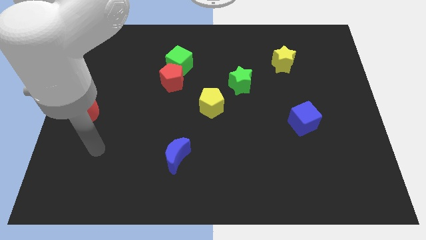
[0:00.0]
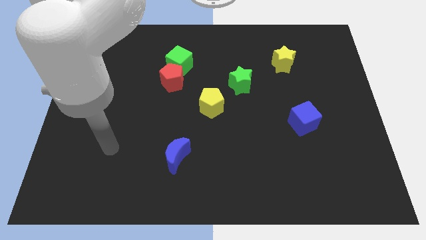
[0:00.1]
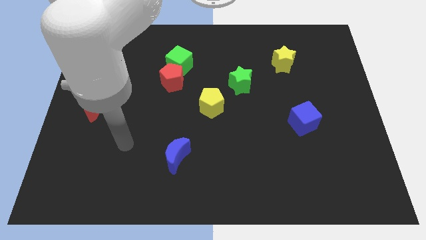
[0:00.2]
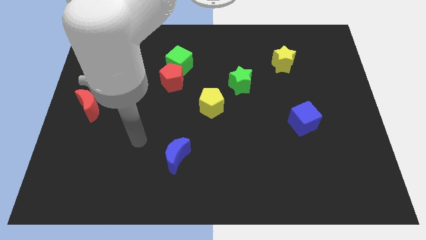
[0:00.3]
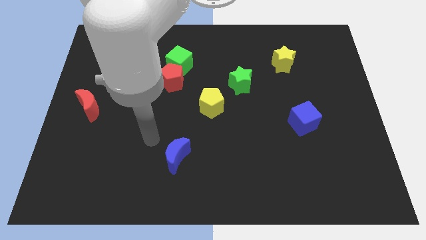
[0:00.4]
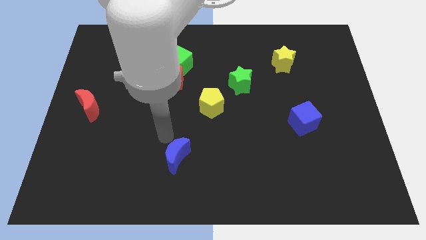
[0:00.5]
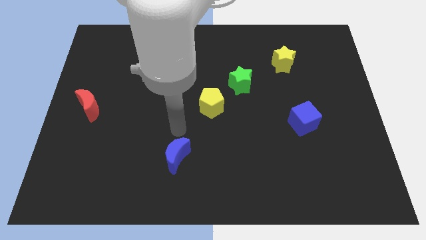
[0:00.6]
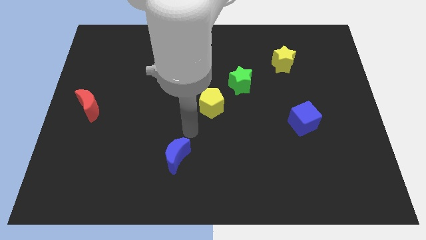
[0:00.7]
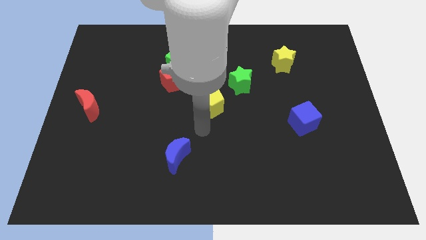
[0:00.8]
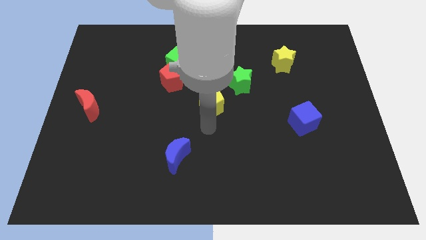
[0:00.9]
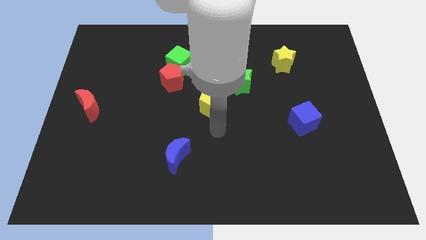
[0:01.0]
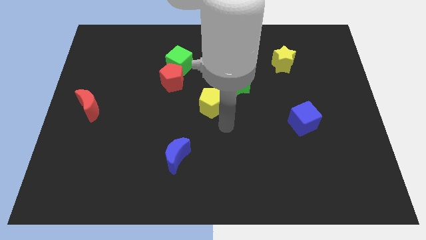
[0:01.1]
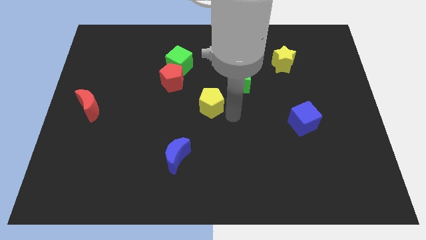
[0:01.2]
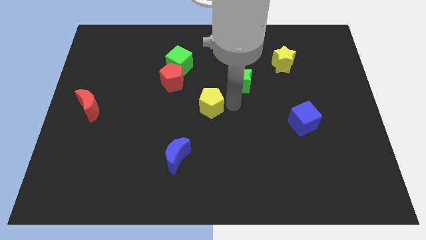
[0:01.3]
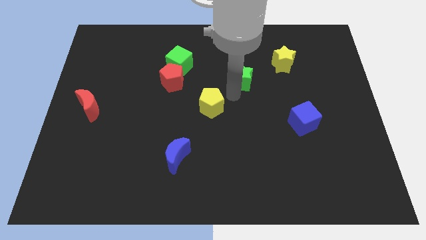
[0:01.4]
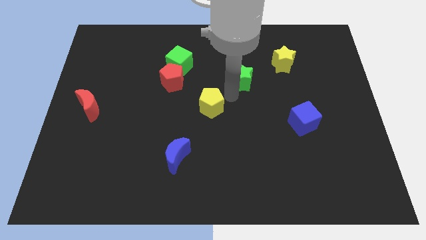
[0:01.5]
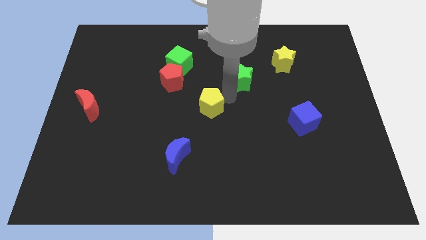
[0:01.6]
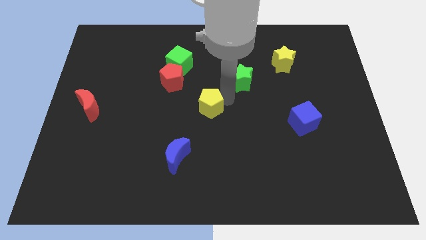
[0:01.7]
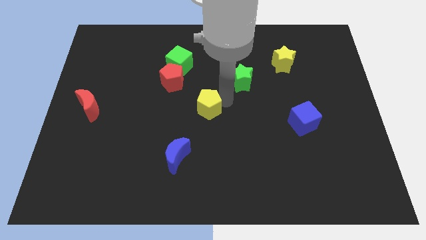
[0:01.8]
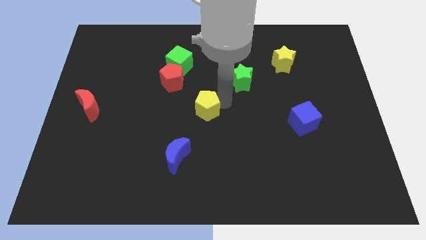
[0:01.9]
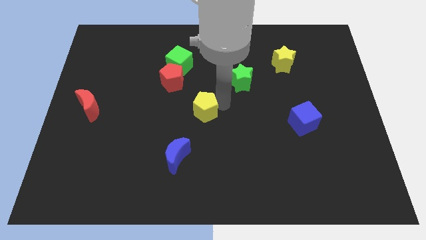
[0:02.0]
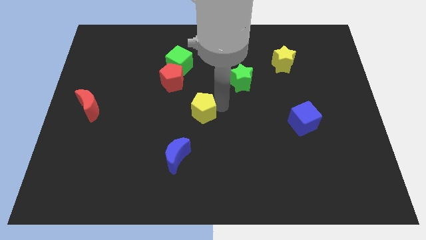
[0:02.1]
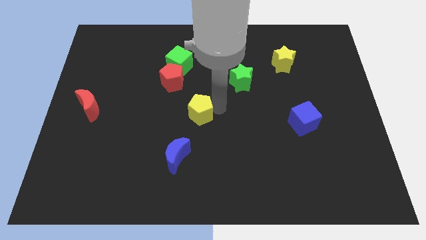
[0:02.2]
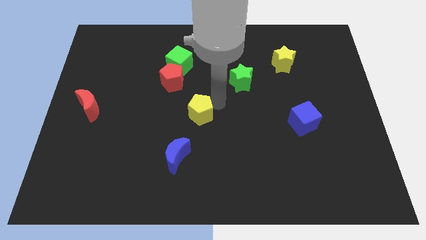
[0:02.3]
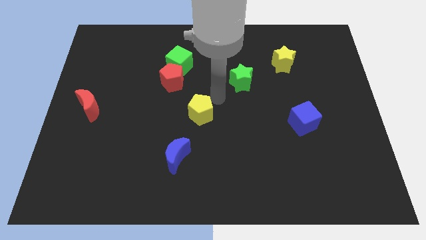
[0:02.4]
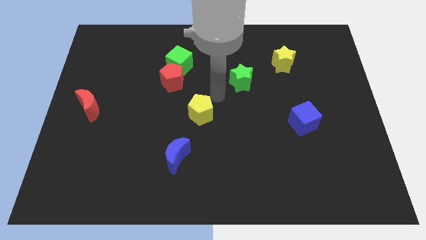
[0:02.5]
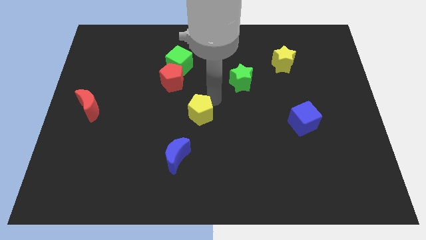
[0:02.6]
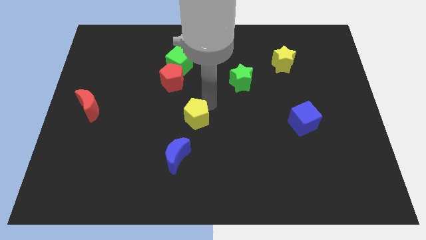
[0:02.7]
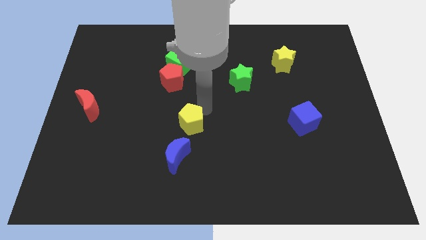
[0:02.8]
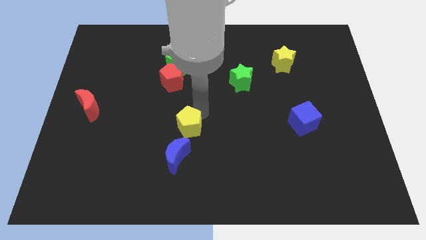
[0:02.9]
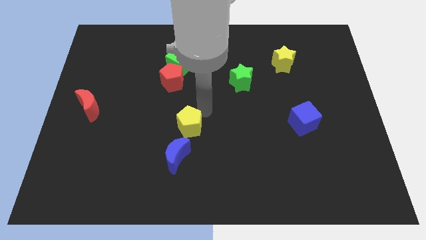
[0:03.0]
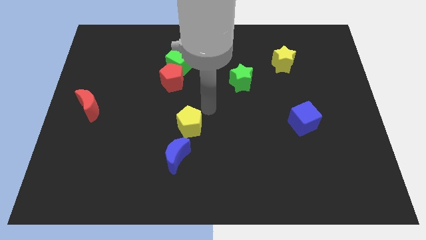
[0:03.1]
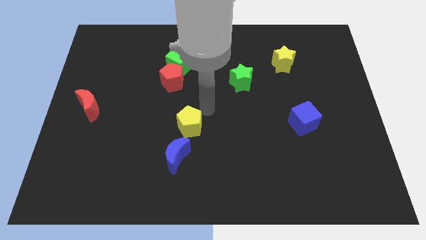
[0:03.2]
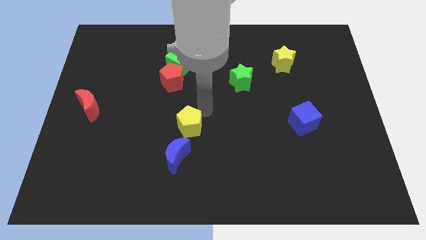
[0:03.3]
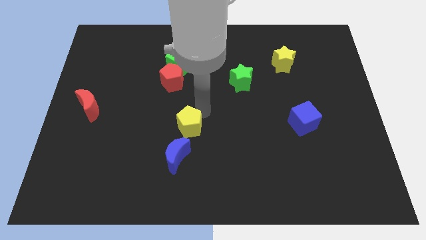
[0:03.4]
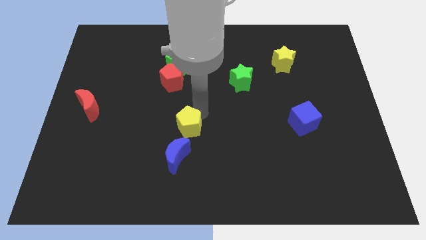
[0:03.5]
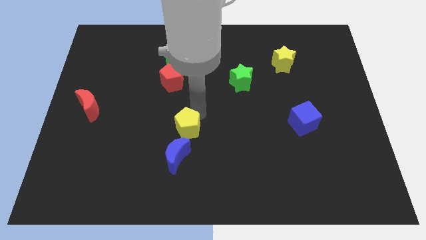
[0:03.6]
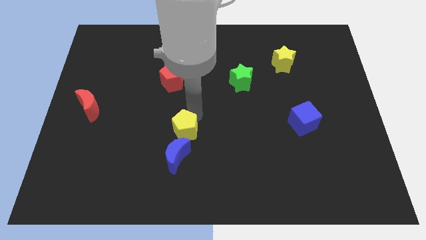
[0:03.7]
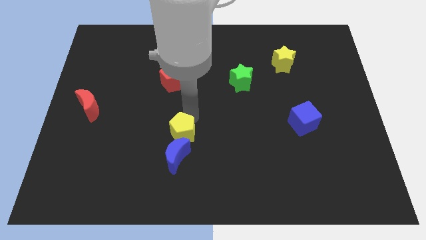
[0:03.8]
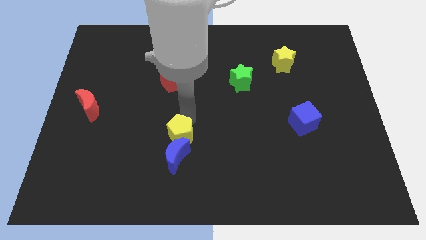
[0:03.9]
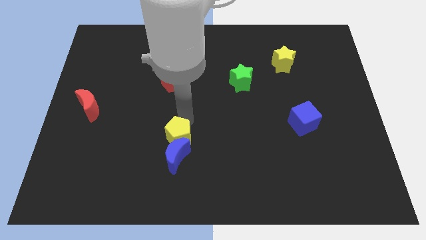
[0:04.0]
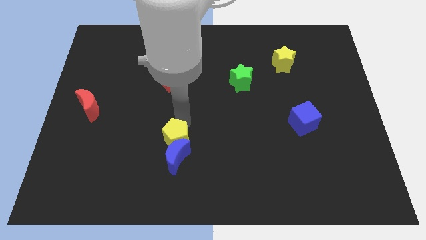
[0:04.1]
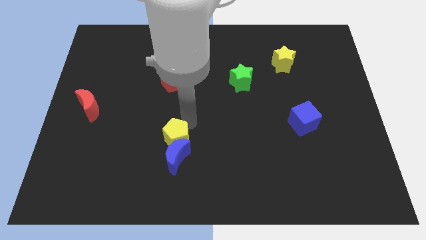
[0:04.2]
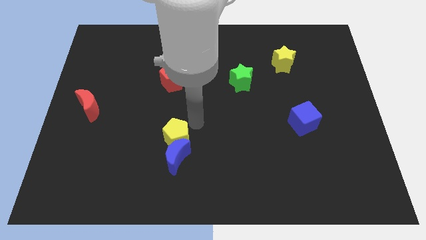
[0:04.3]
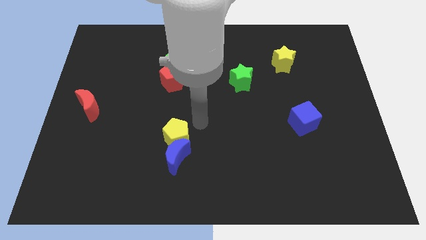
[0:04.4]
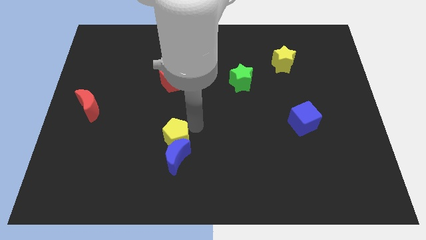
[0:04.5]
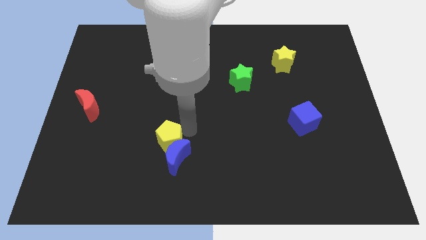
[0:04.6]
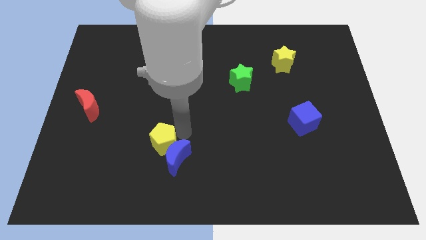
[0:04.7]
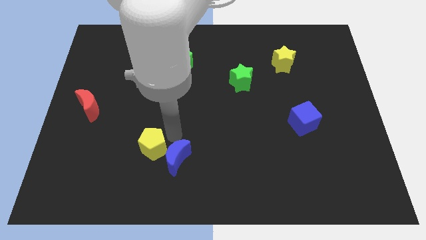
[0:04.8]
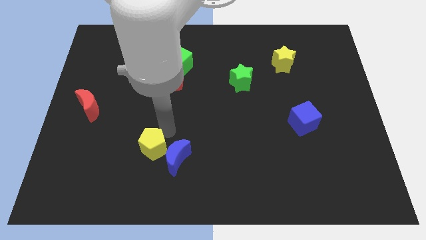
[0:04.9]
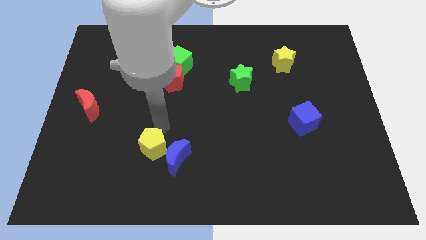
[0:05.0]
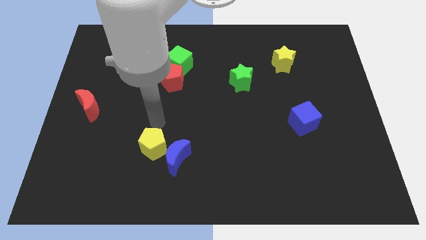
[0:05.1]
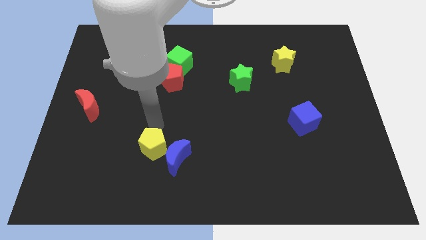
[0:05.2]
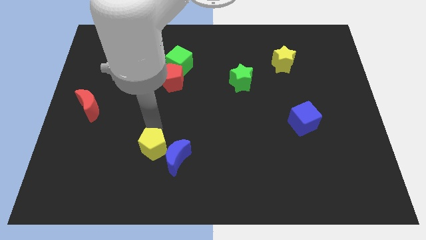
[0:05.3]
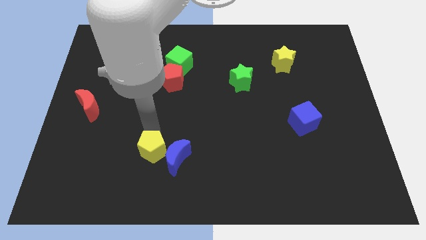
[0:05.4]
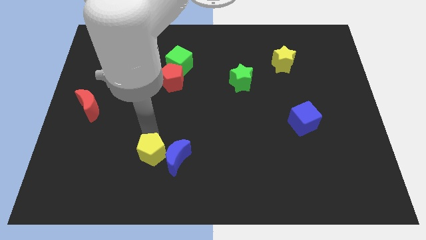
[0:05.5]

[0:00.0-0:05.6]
put the yellow pentagon to the bottom left of the blue moon

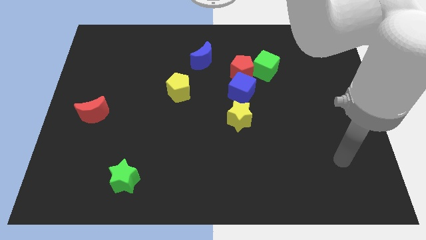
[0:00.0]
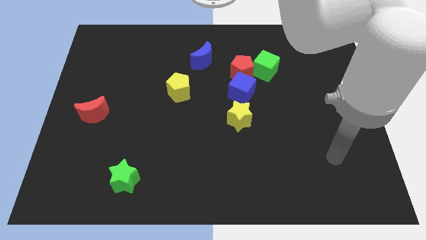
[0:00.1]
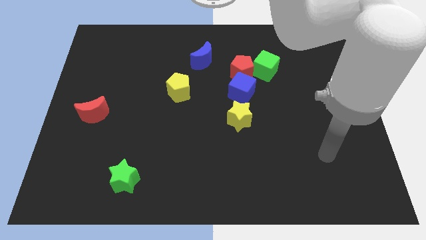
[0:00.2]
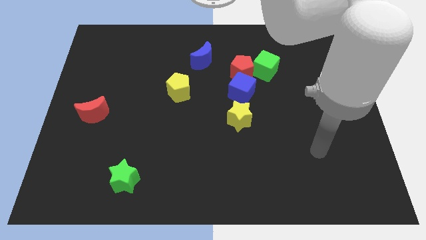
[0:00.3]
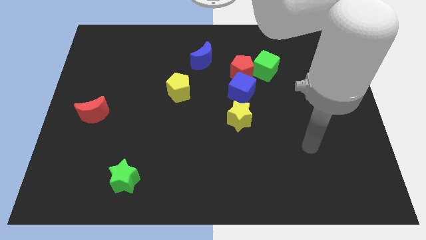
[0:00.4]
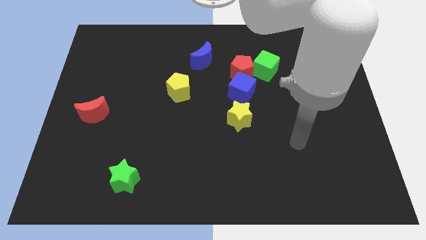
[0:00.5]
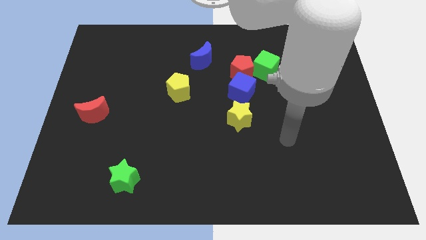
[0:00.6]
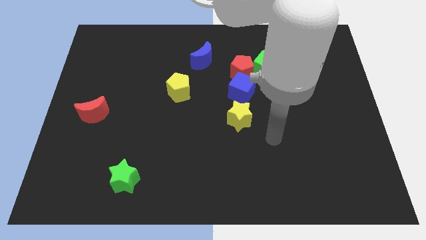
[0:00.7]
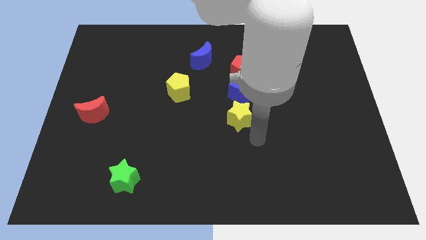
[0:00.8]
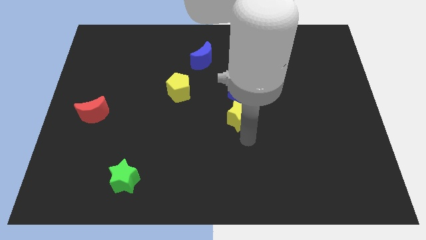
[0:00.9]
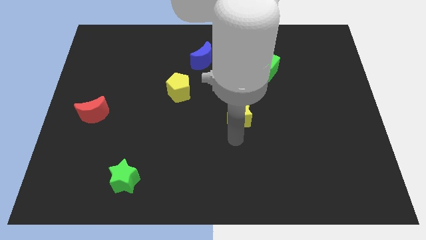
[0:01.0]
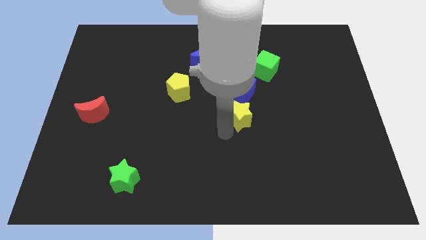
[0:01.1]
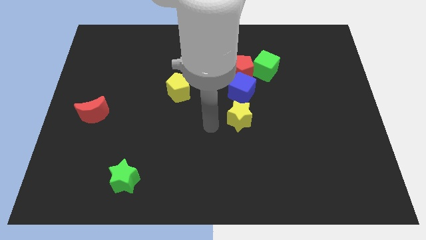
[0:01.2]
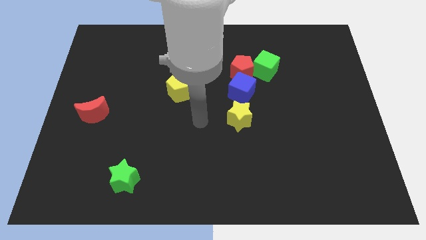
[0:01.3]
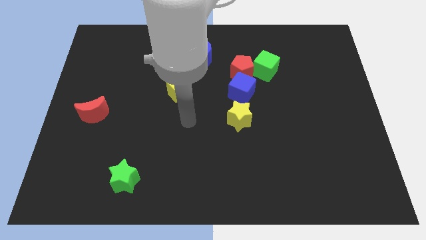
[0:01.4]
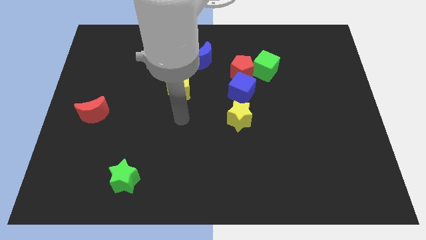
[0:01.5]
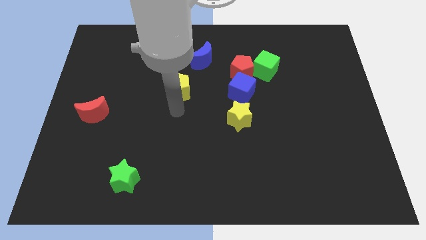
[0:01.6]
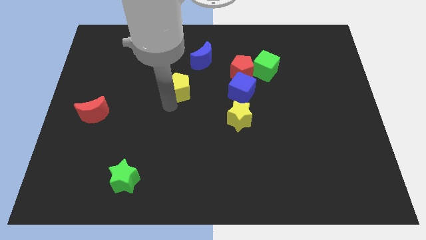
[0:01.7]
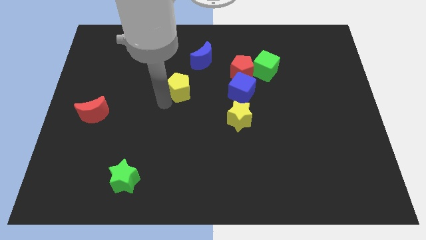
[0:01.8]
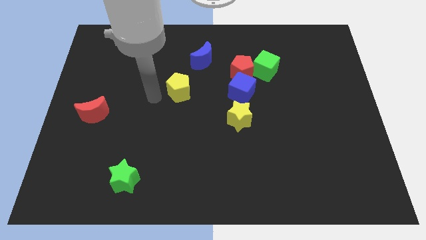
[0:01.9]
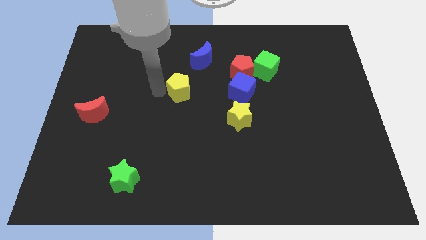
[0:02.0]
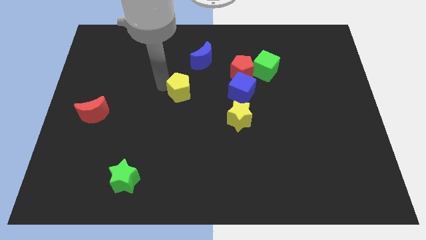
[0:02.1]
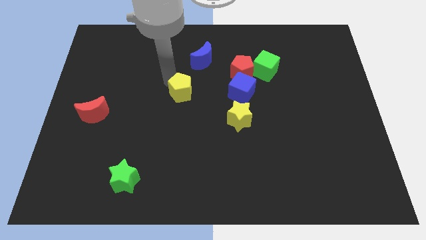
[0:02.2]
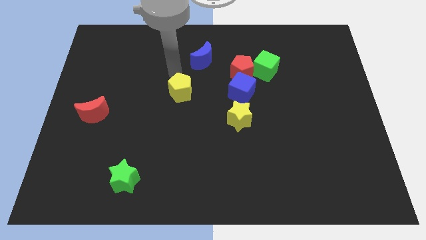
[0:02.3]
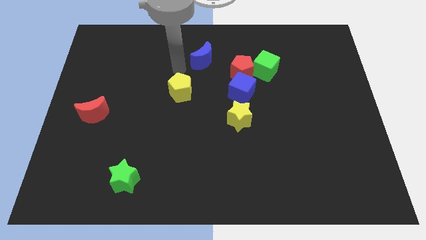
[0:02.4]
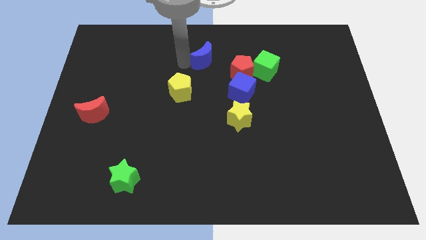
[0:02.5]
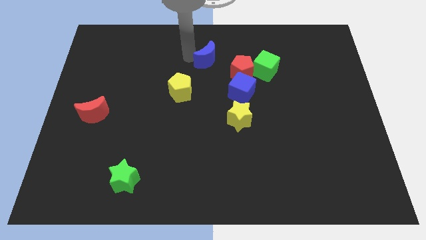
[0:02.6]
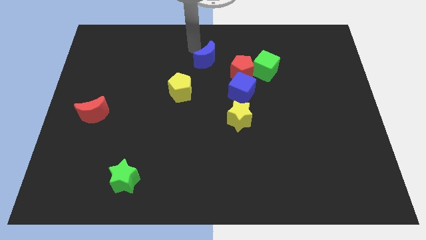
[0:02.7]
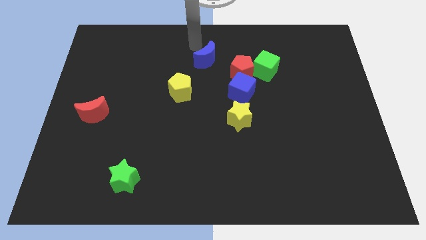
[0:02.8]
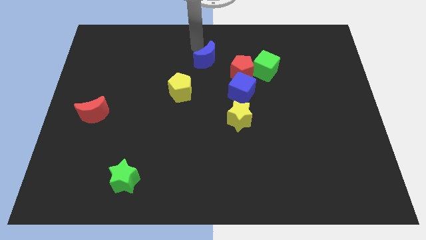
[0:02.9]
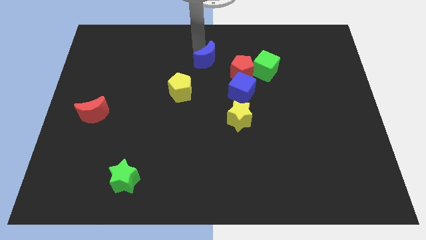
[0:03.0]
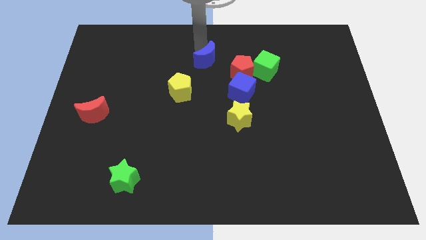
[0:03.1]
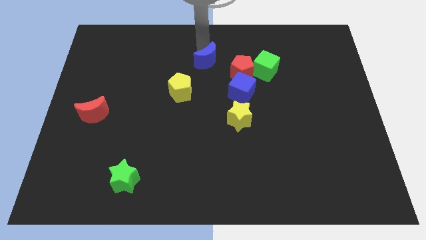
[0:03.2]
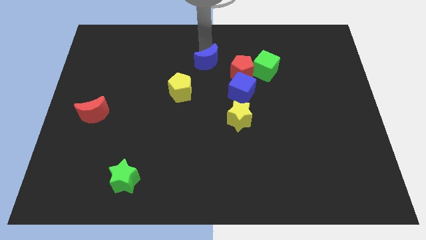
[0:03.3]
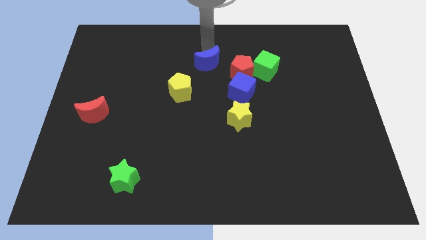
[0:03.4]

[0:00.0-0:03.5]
put the blue moon to the top left side of the blue cube
